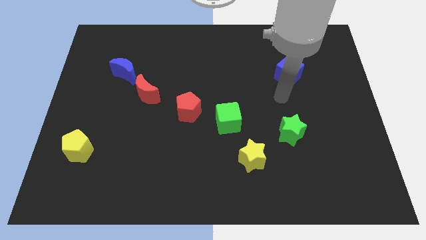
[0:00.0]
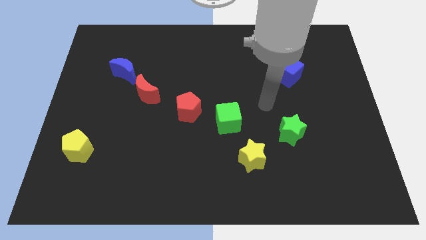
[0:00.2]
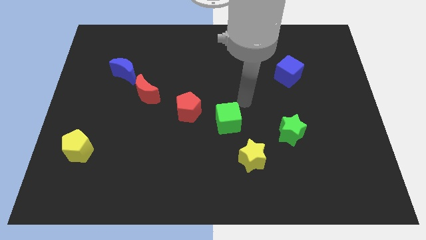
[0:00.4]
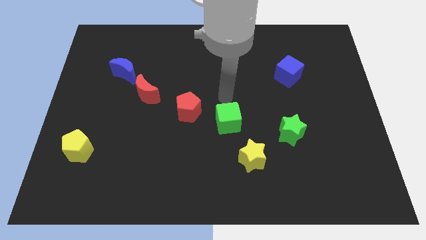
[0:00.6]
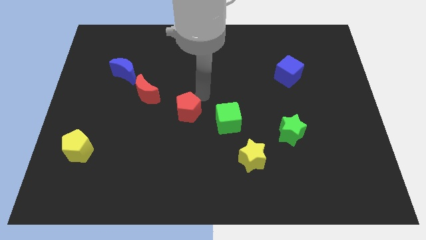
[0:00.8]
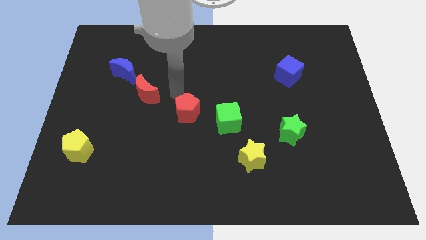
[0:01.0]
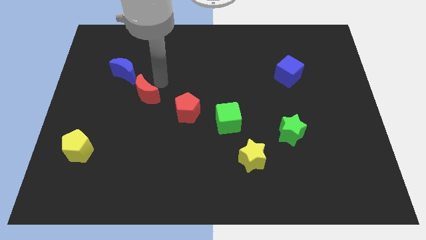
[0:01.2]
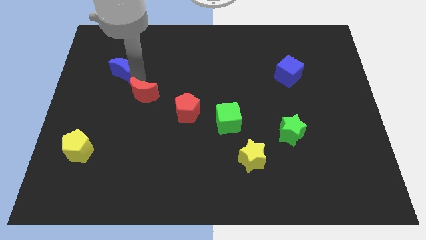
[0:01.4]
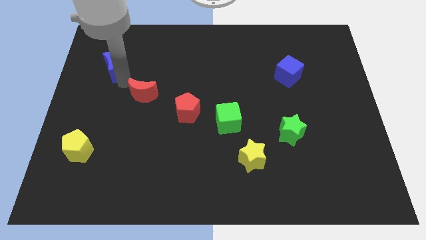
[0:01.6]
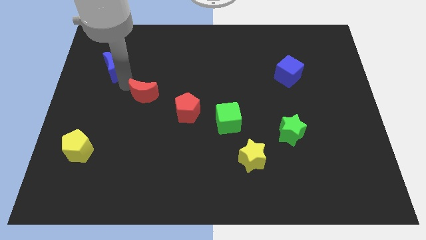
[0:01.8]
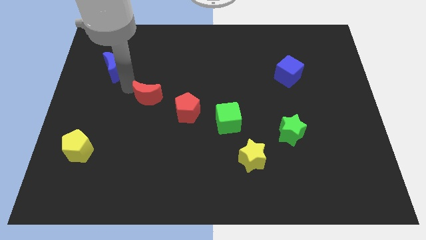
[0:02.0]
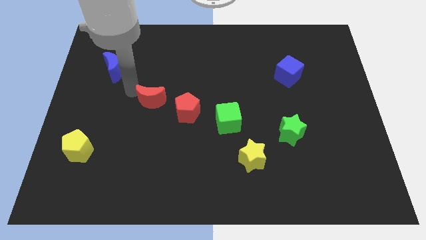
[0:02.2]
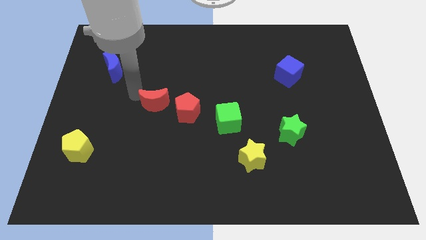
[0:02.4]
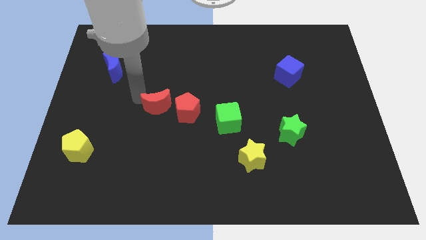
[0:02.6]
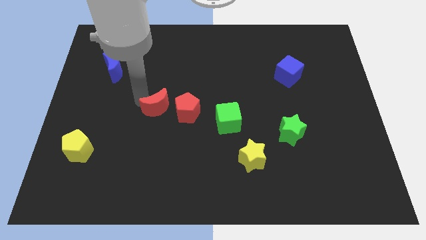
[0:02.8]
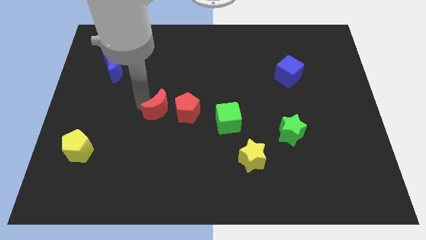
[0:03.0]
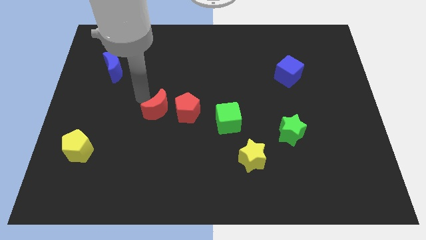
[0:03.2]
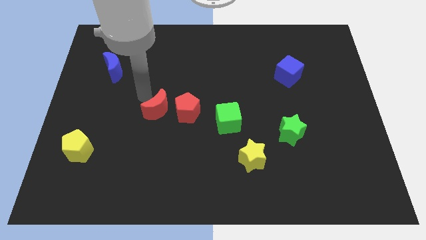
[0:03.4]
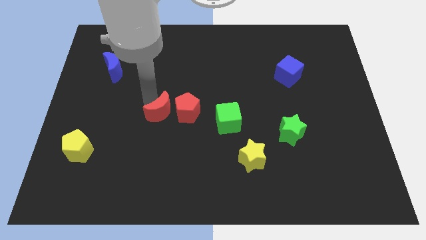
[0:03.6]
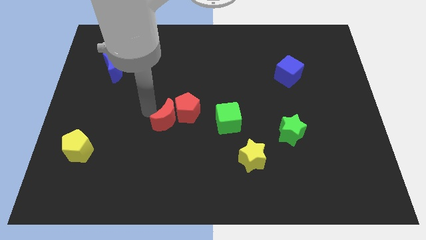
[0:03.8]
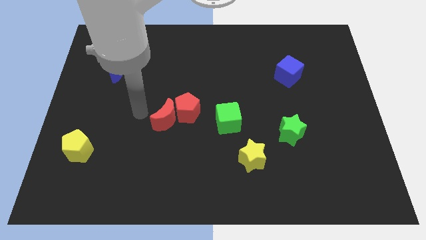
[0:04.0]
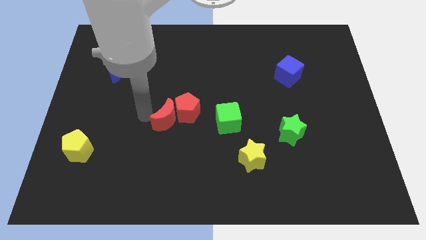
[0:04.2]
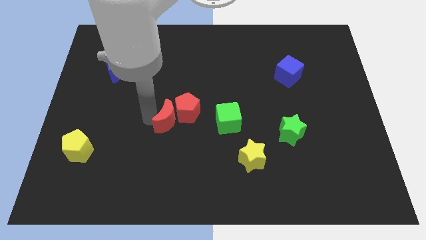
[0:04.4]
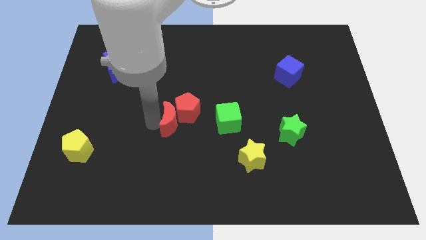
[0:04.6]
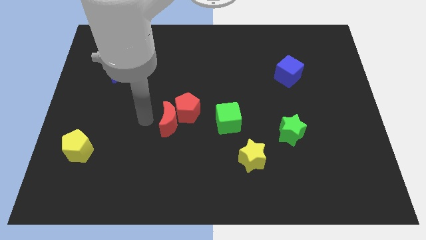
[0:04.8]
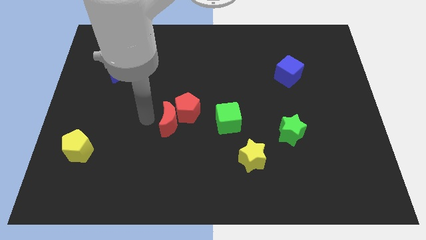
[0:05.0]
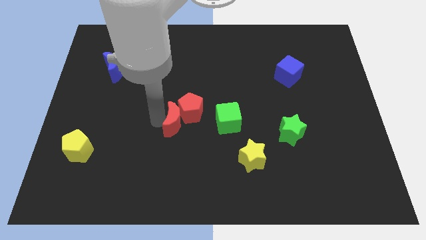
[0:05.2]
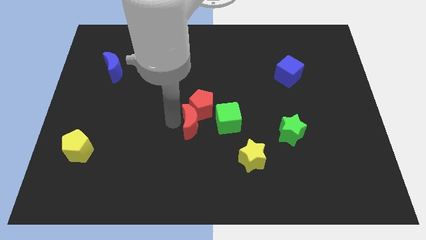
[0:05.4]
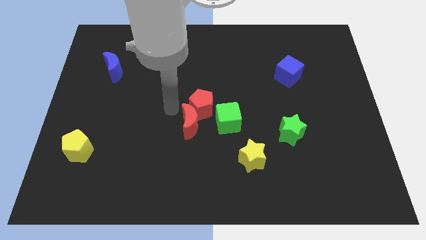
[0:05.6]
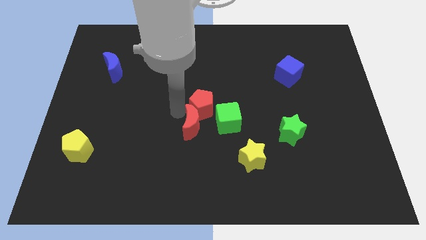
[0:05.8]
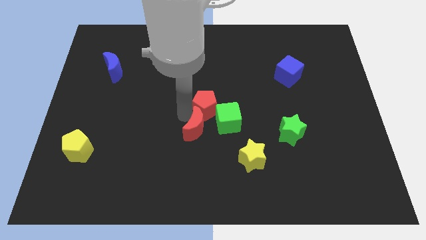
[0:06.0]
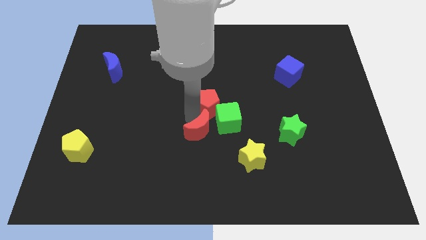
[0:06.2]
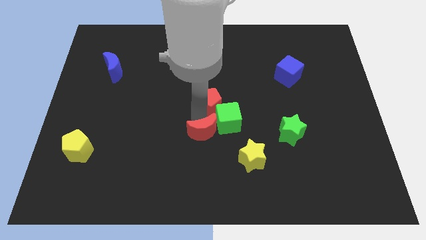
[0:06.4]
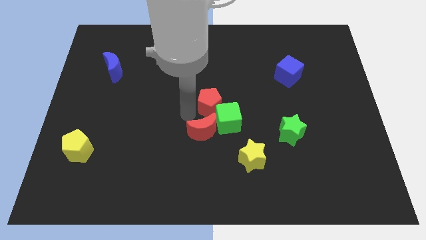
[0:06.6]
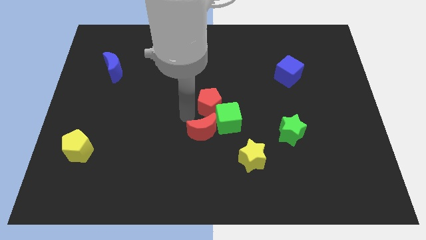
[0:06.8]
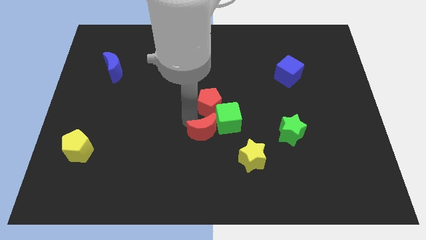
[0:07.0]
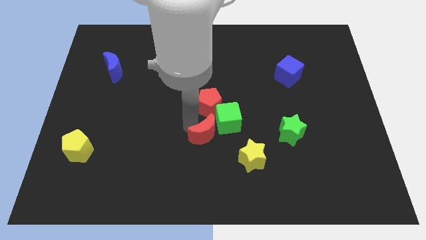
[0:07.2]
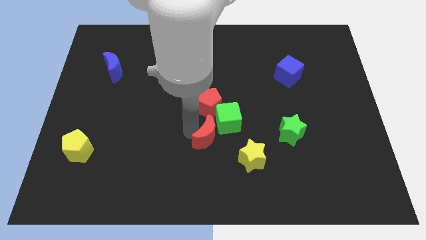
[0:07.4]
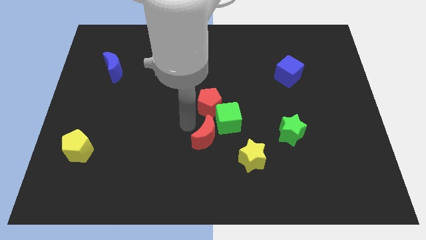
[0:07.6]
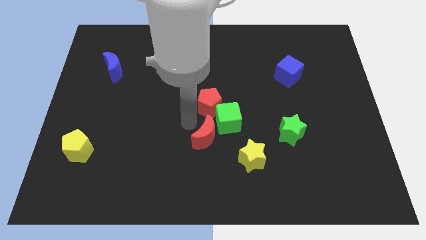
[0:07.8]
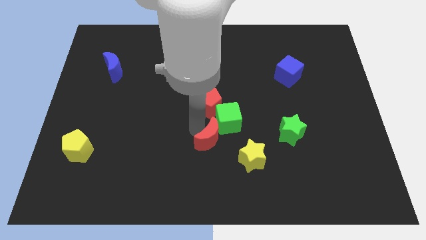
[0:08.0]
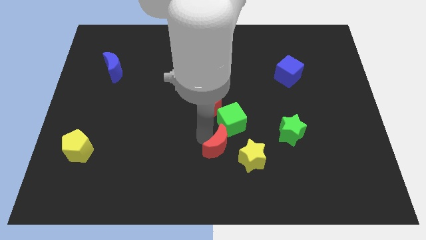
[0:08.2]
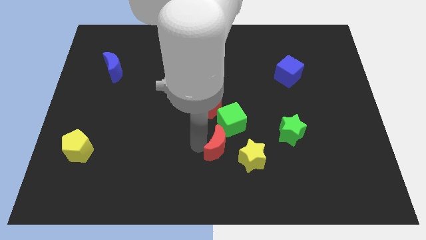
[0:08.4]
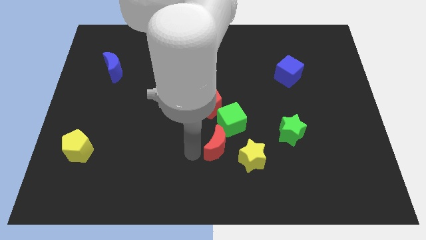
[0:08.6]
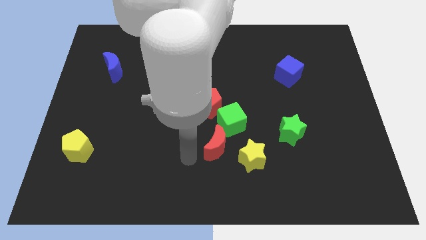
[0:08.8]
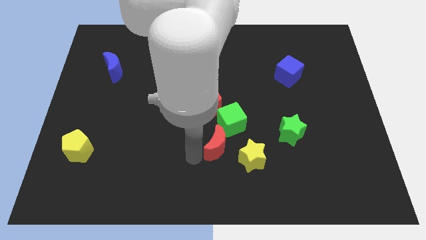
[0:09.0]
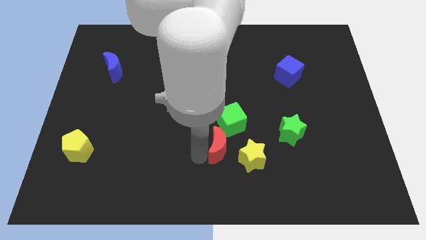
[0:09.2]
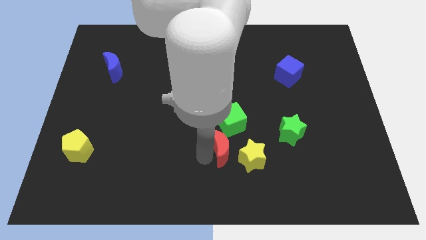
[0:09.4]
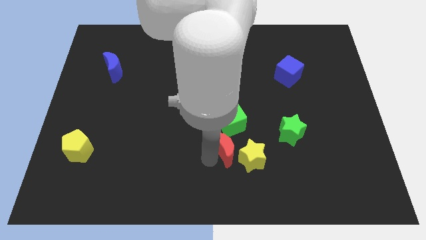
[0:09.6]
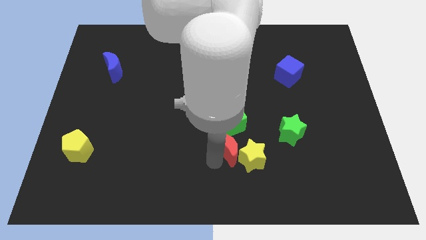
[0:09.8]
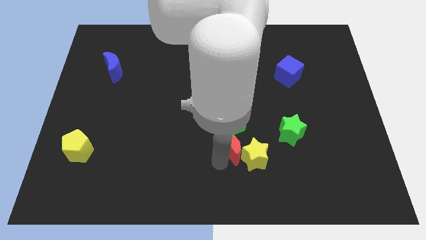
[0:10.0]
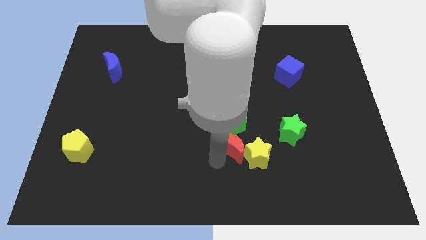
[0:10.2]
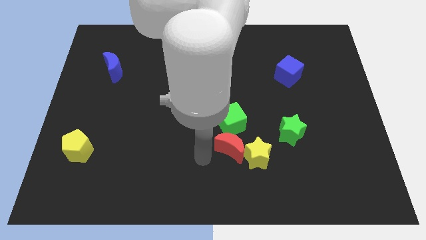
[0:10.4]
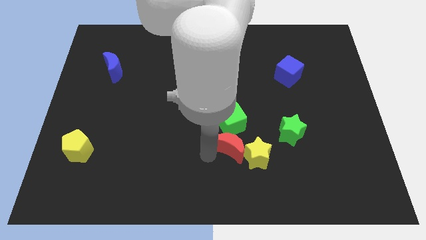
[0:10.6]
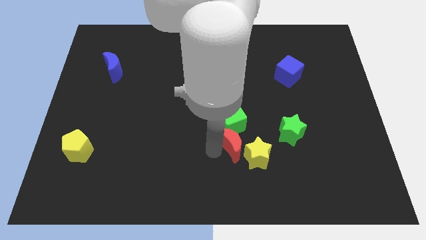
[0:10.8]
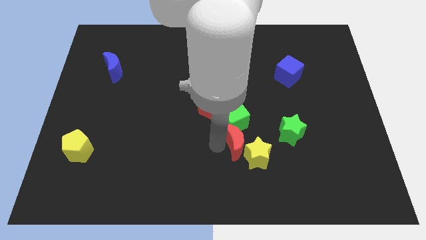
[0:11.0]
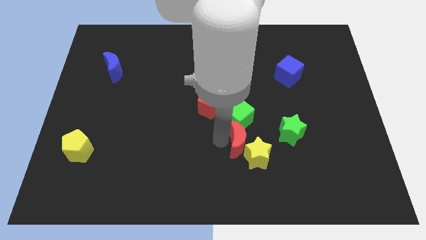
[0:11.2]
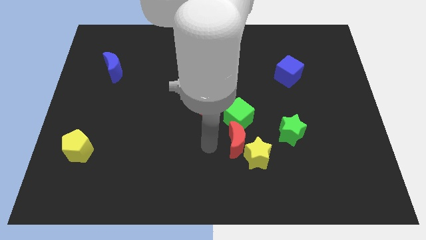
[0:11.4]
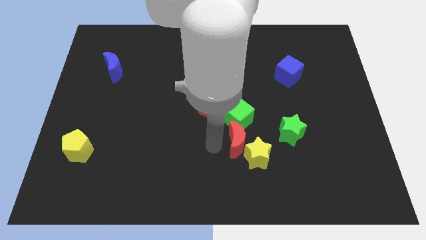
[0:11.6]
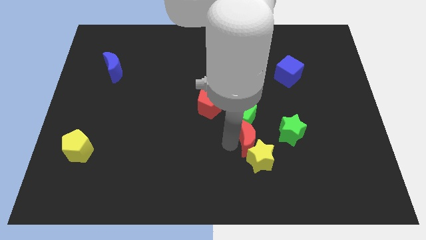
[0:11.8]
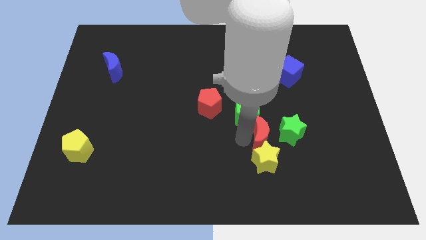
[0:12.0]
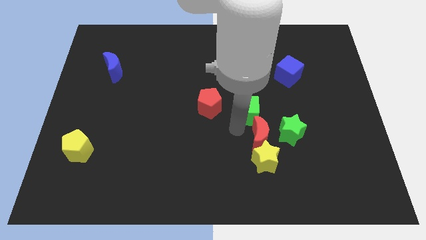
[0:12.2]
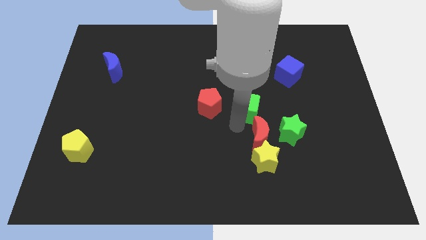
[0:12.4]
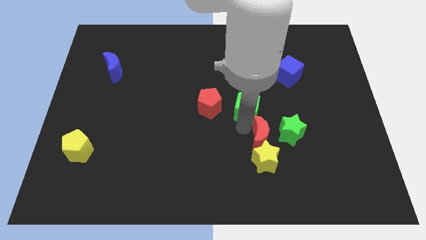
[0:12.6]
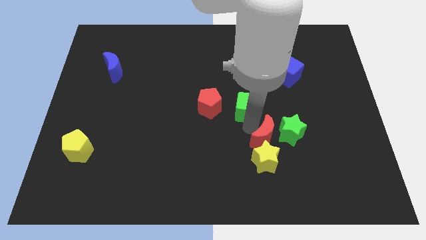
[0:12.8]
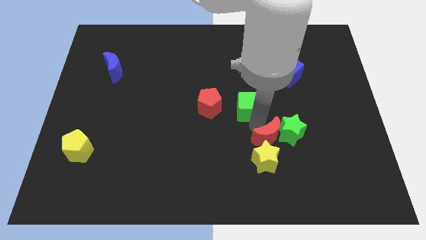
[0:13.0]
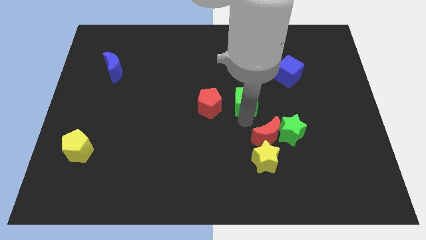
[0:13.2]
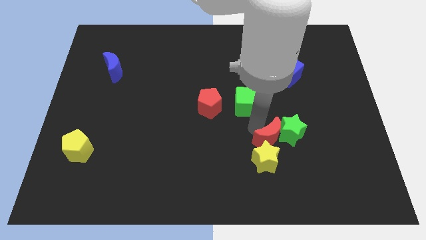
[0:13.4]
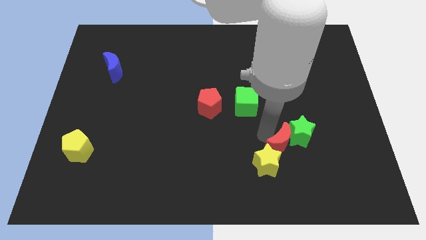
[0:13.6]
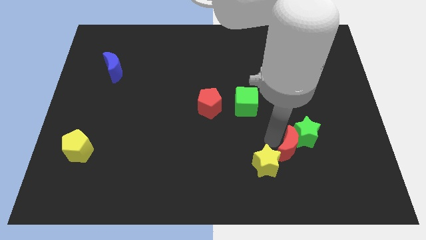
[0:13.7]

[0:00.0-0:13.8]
move the red moon just right of the yellow star
